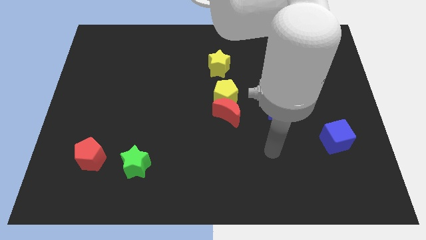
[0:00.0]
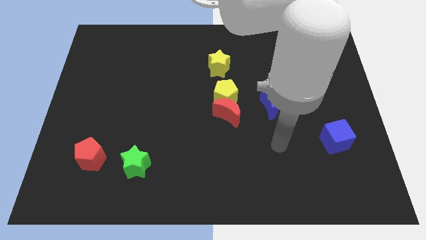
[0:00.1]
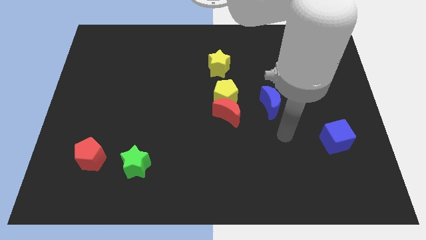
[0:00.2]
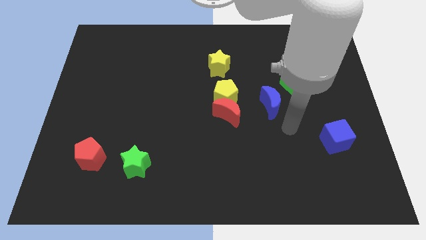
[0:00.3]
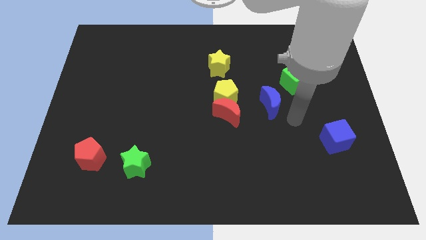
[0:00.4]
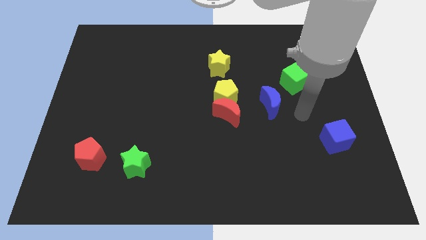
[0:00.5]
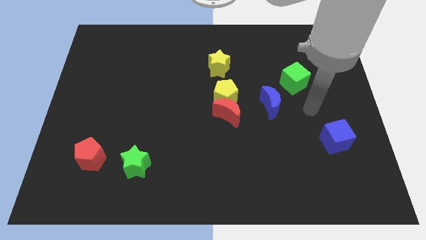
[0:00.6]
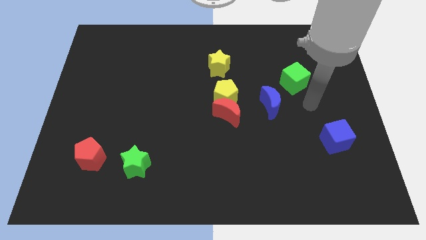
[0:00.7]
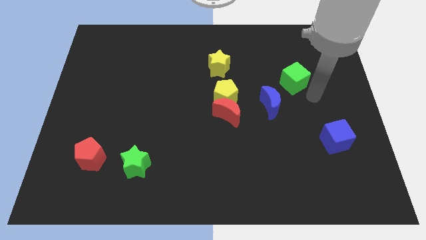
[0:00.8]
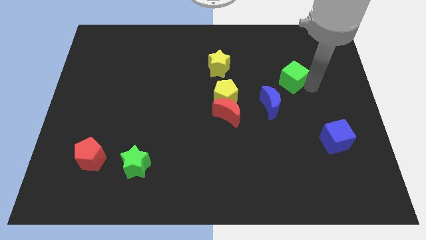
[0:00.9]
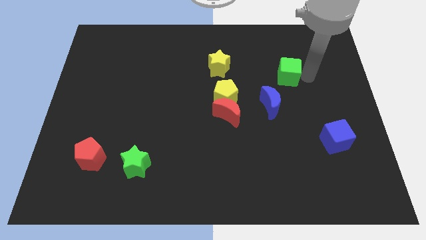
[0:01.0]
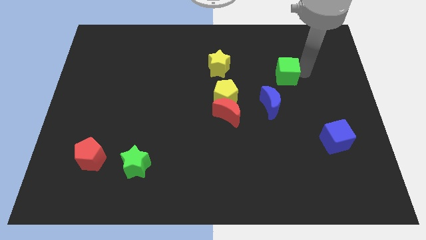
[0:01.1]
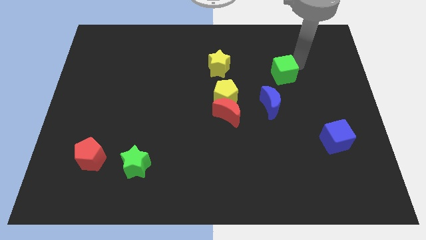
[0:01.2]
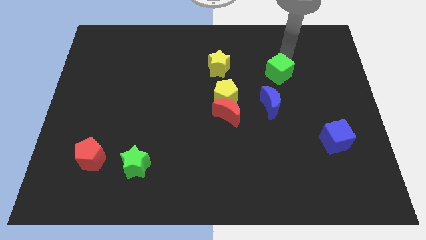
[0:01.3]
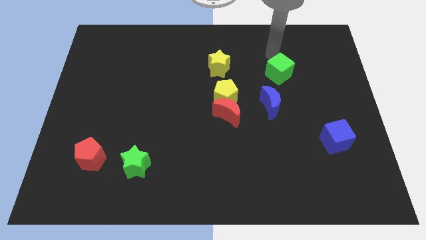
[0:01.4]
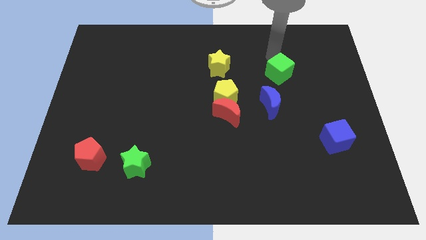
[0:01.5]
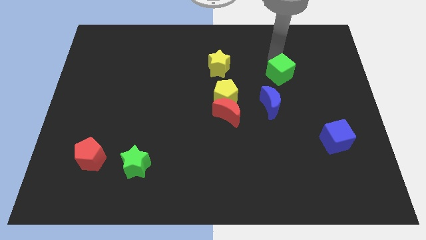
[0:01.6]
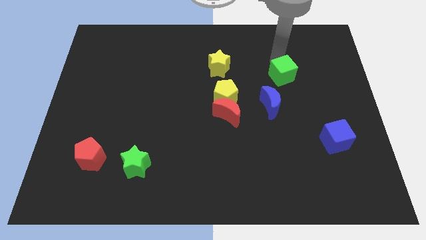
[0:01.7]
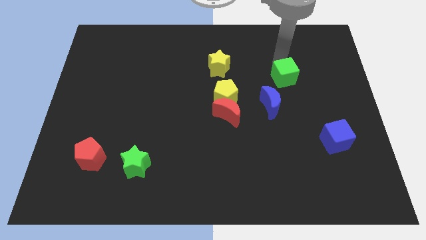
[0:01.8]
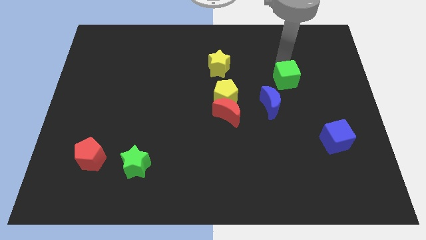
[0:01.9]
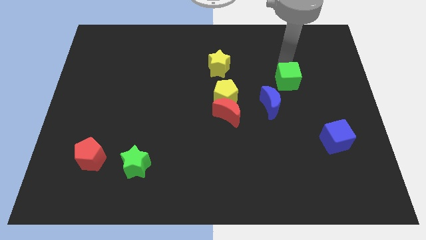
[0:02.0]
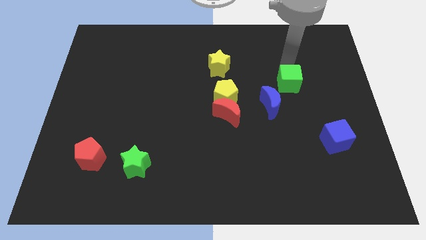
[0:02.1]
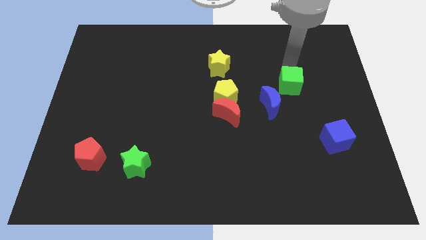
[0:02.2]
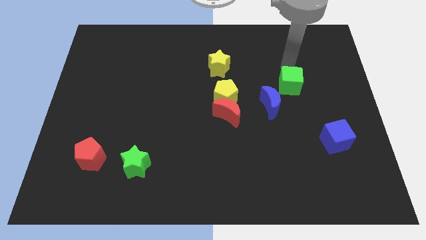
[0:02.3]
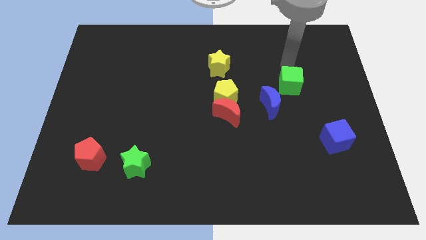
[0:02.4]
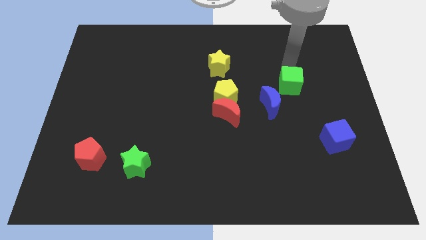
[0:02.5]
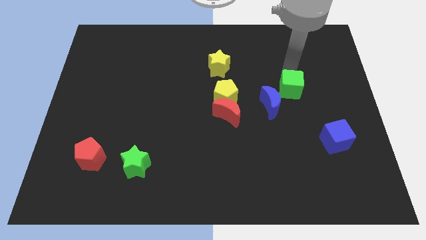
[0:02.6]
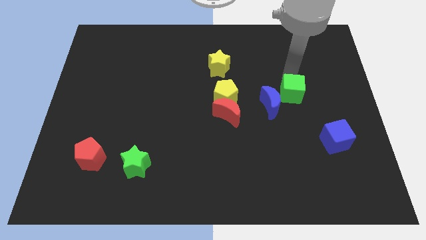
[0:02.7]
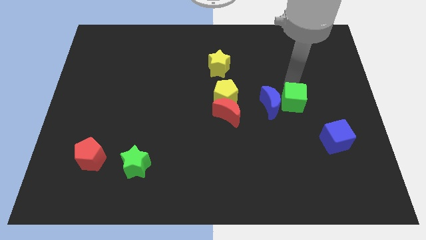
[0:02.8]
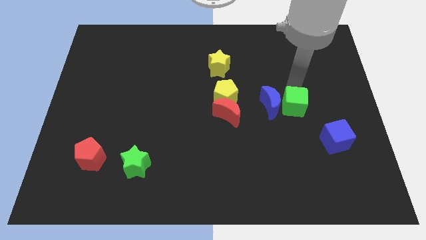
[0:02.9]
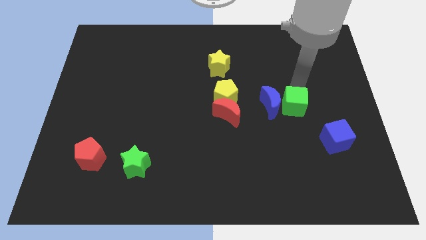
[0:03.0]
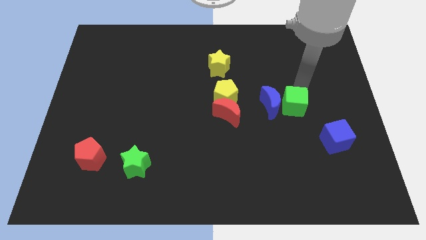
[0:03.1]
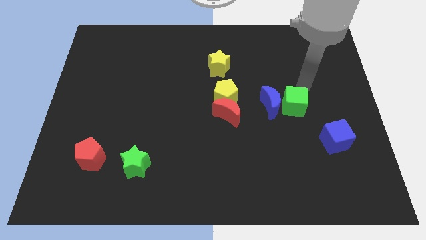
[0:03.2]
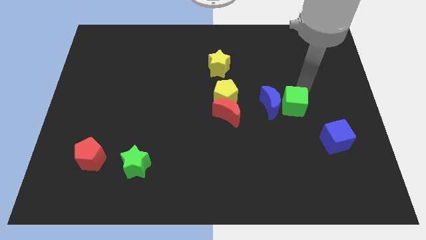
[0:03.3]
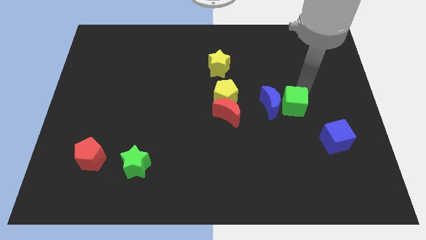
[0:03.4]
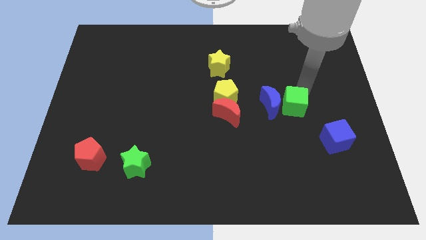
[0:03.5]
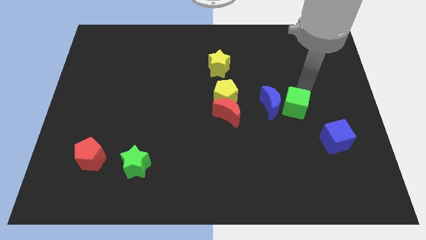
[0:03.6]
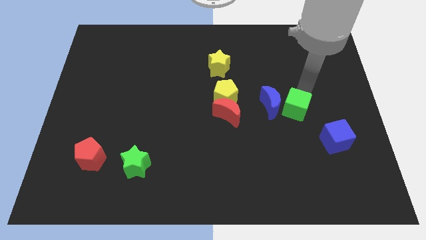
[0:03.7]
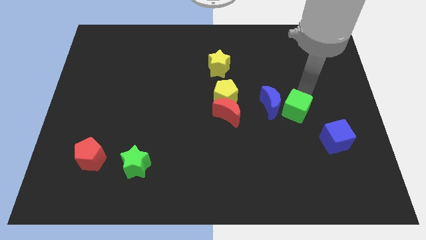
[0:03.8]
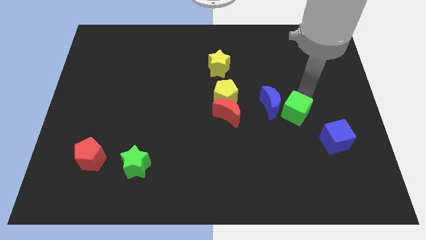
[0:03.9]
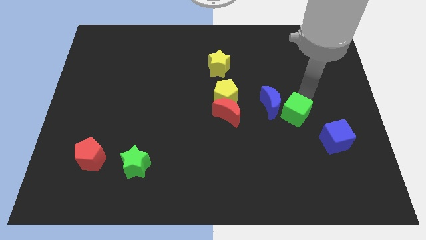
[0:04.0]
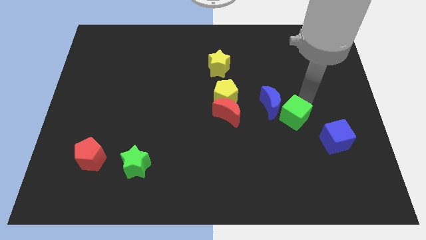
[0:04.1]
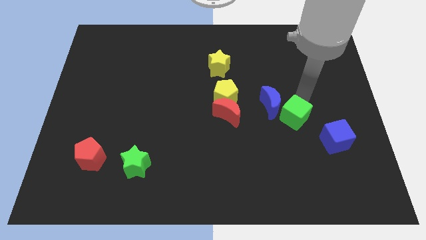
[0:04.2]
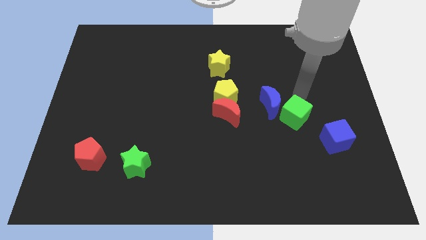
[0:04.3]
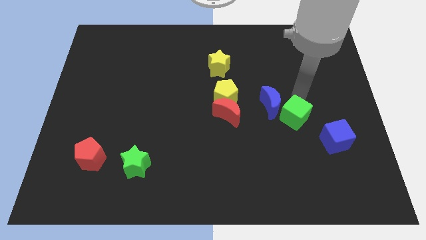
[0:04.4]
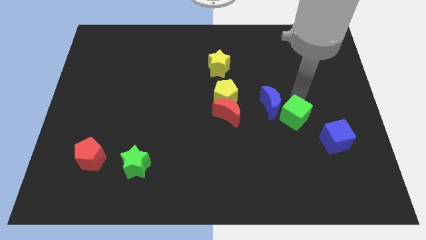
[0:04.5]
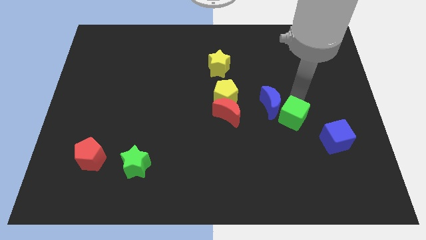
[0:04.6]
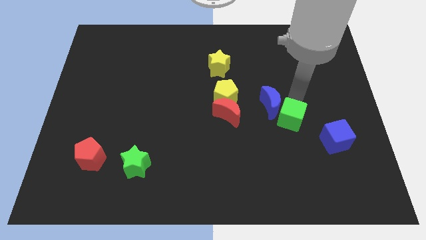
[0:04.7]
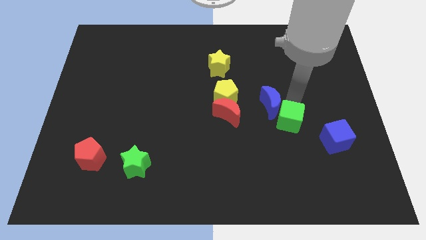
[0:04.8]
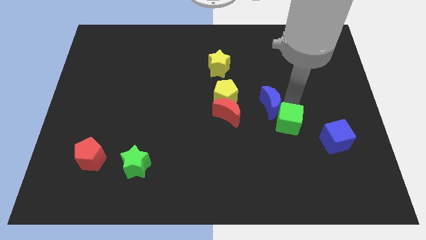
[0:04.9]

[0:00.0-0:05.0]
slide the green cube to the left side of the blue cube

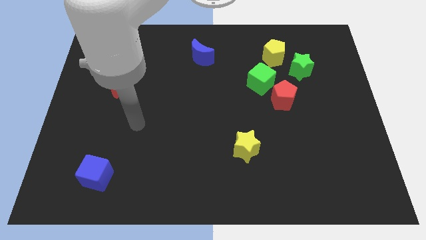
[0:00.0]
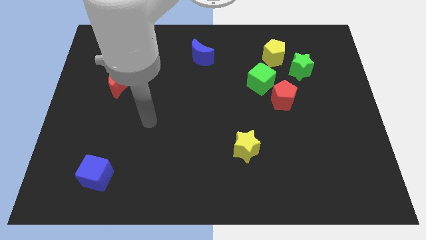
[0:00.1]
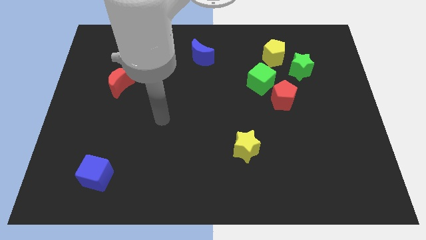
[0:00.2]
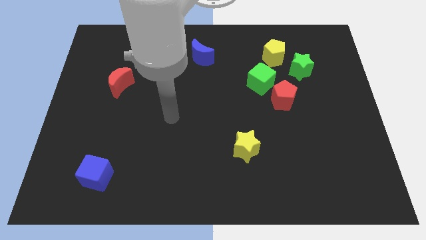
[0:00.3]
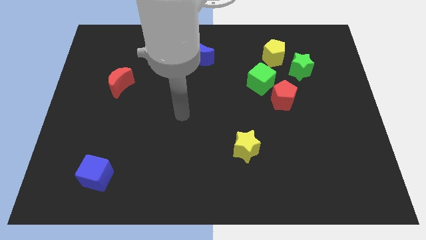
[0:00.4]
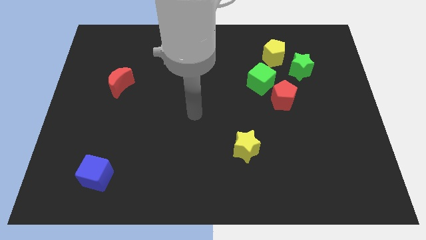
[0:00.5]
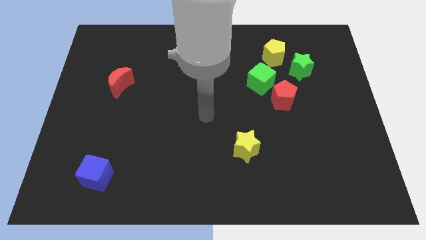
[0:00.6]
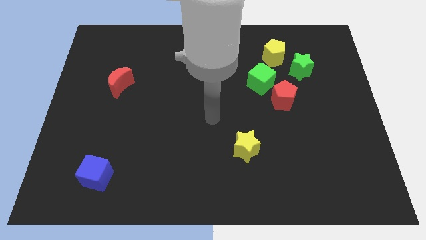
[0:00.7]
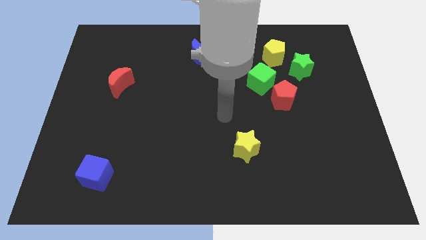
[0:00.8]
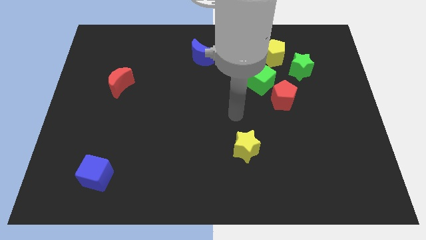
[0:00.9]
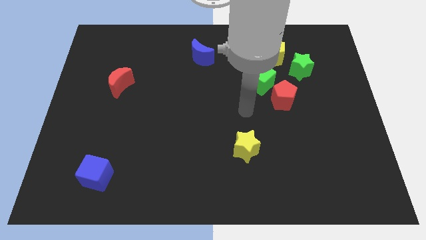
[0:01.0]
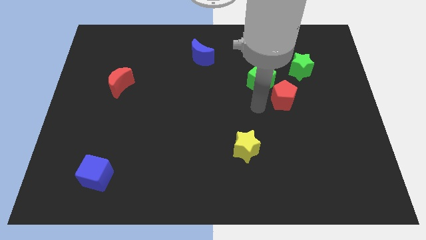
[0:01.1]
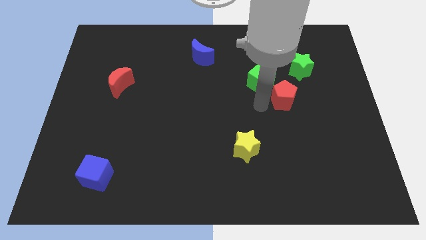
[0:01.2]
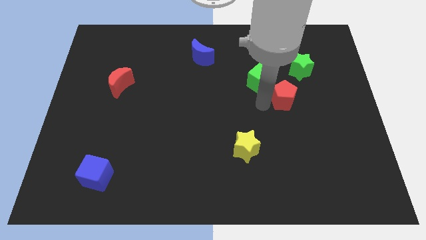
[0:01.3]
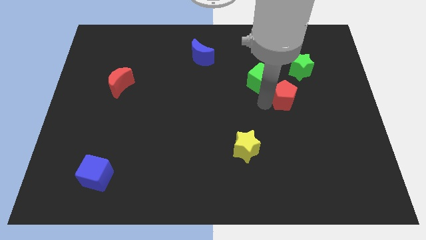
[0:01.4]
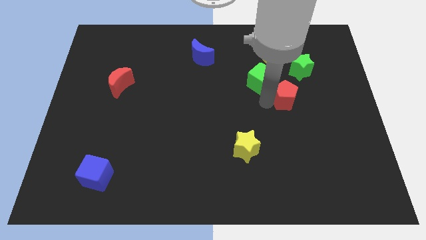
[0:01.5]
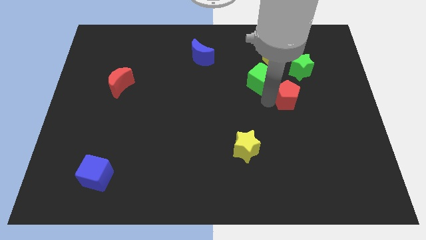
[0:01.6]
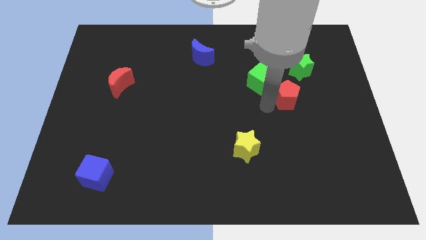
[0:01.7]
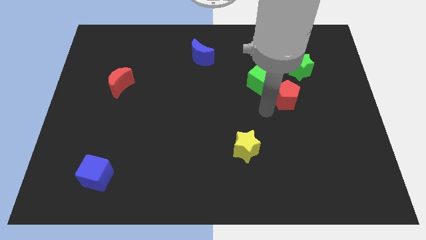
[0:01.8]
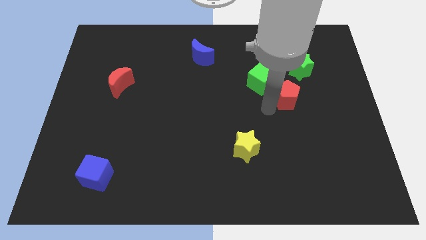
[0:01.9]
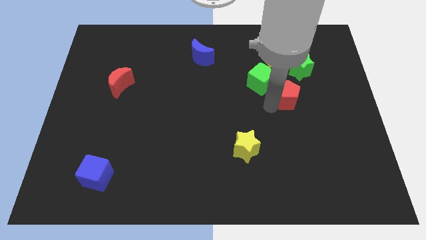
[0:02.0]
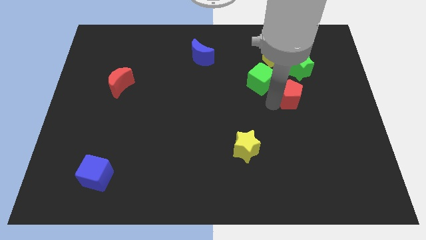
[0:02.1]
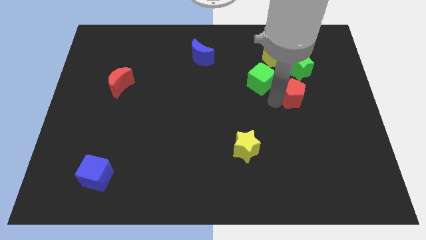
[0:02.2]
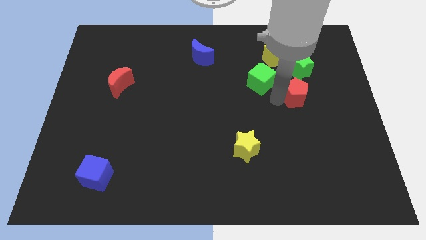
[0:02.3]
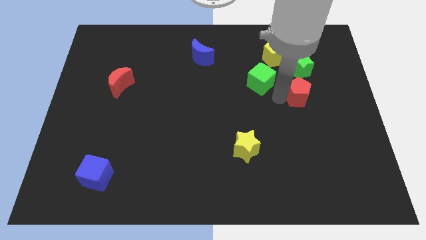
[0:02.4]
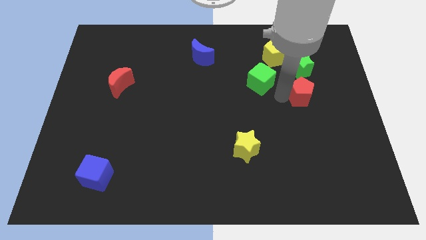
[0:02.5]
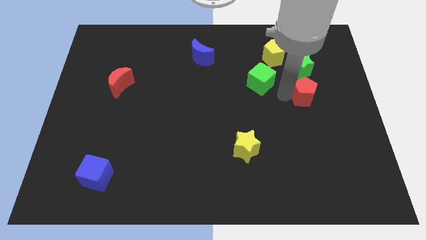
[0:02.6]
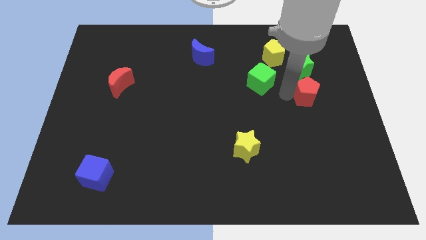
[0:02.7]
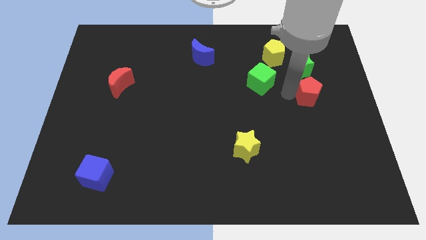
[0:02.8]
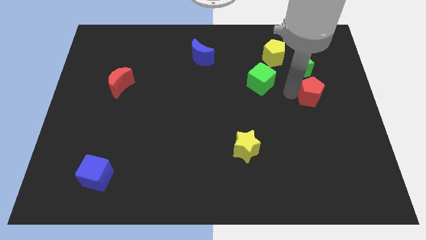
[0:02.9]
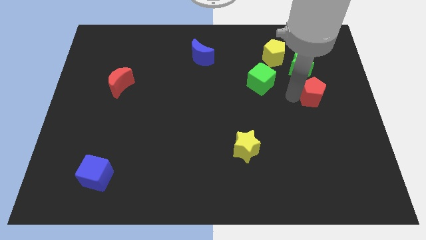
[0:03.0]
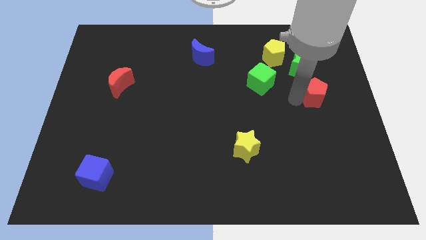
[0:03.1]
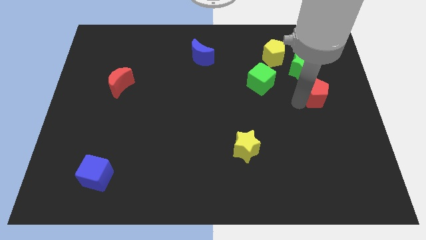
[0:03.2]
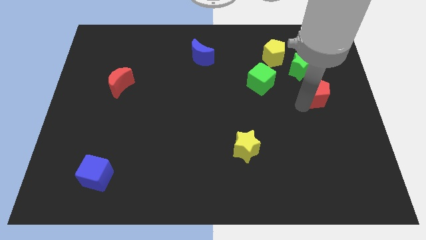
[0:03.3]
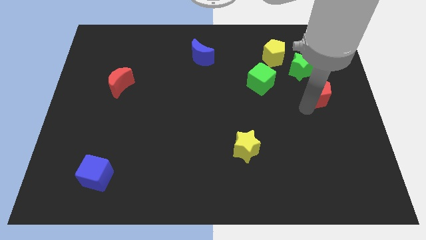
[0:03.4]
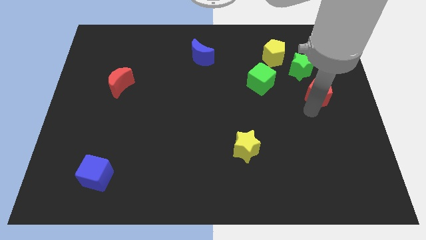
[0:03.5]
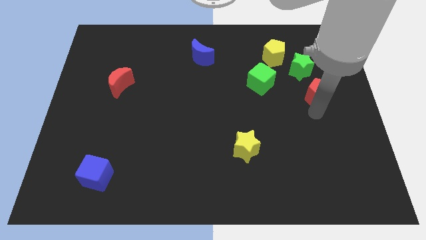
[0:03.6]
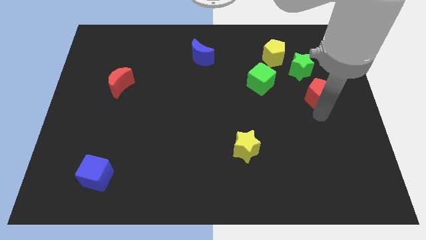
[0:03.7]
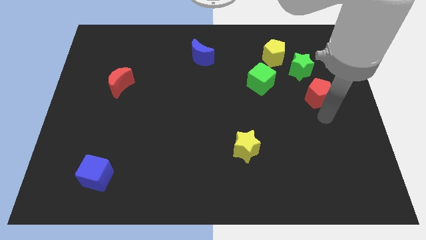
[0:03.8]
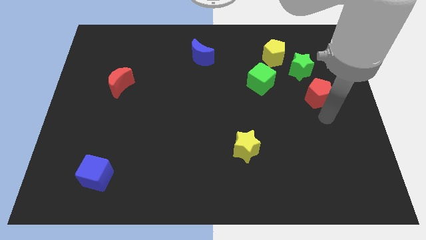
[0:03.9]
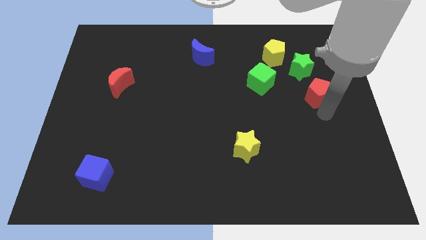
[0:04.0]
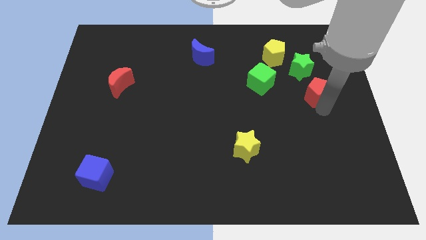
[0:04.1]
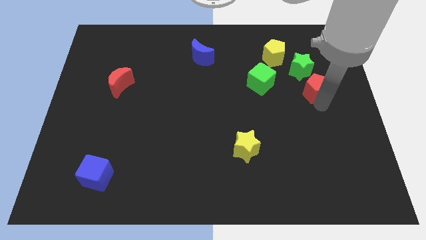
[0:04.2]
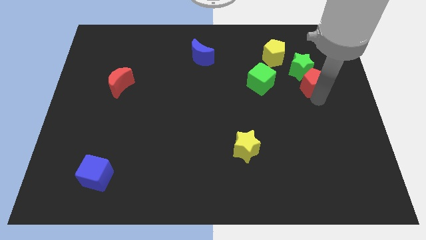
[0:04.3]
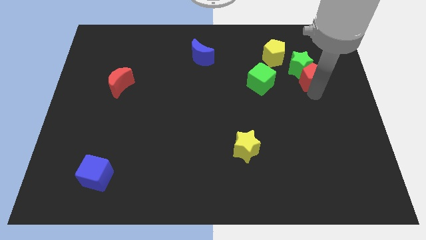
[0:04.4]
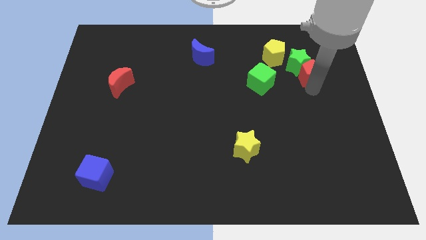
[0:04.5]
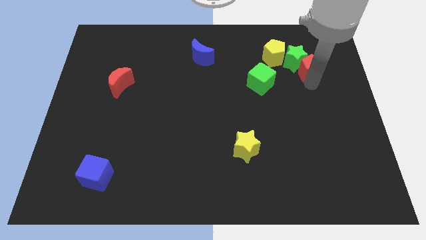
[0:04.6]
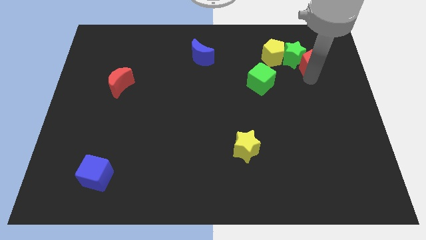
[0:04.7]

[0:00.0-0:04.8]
slide the red pentagon just right of the yellow pentagon
